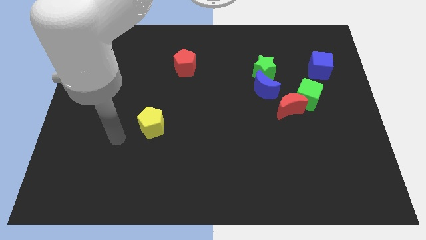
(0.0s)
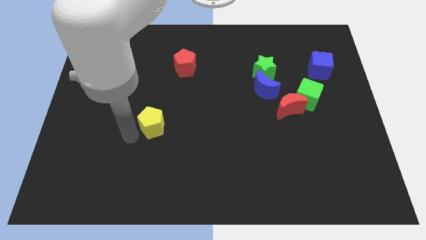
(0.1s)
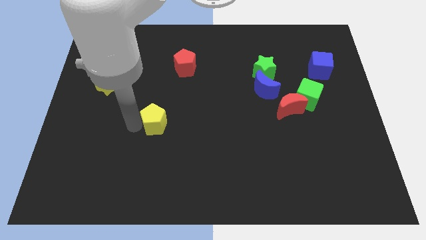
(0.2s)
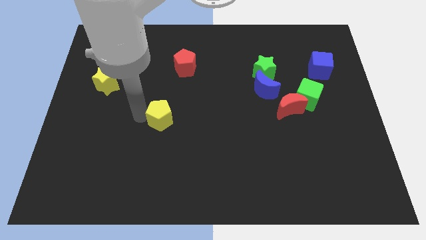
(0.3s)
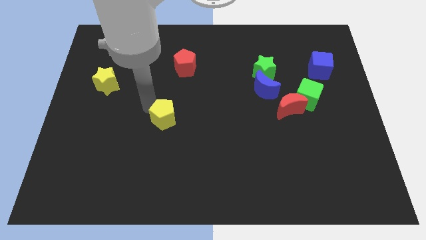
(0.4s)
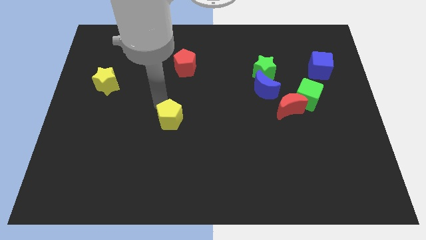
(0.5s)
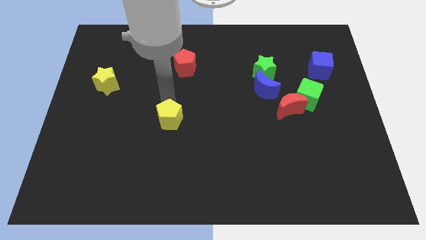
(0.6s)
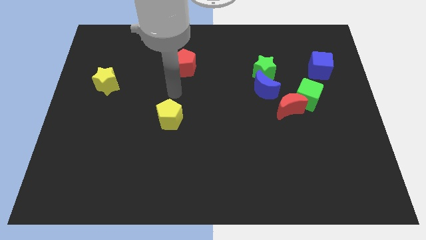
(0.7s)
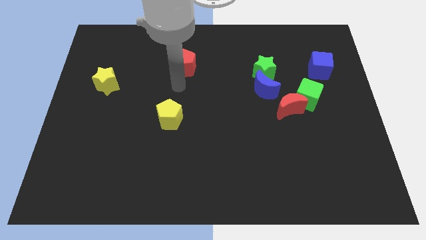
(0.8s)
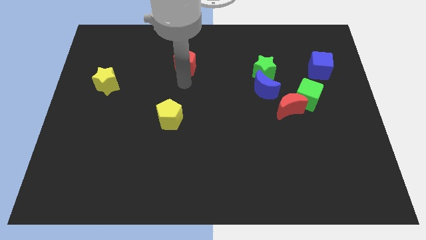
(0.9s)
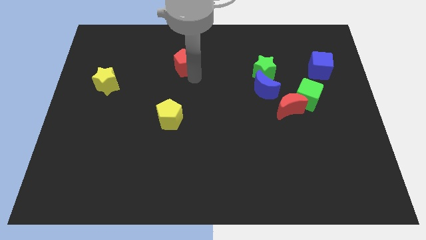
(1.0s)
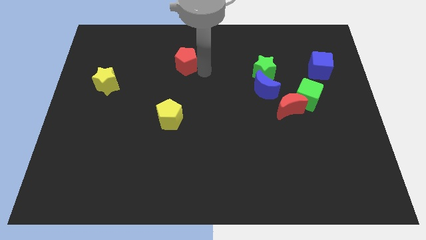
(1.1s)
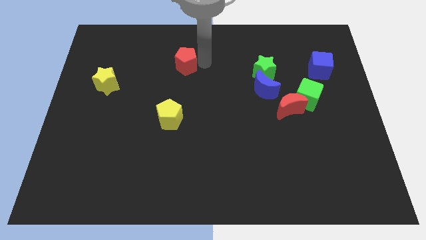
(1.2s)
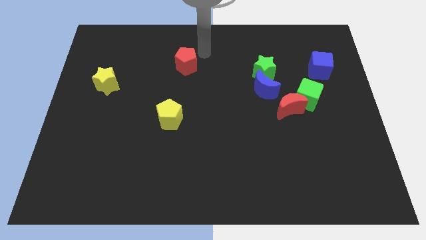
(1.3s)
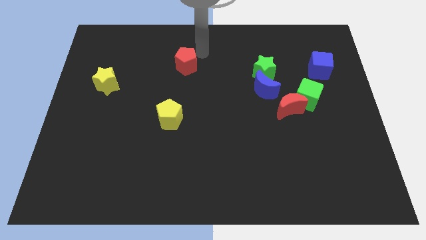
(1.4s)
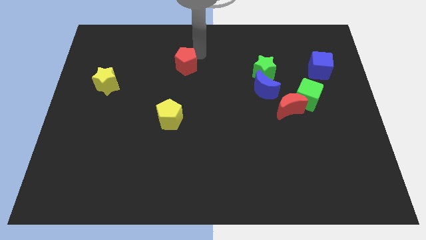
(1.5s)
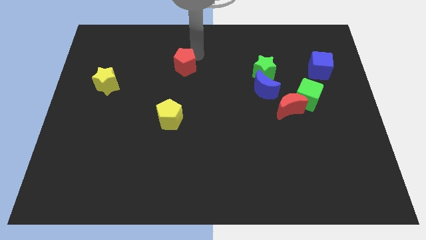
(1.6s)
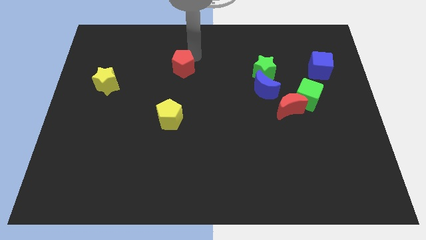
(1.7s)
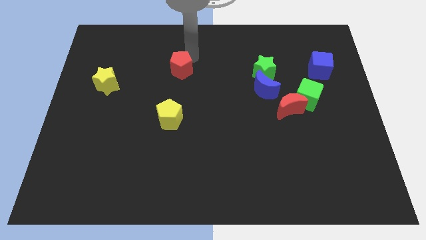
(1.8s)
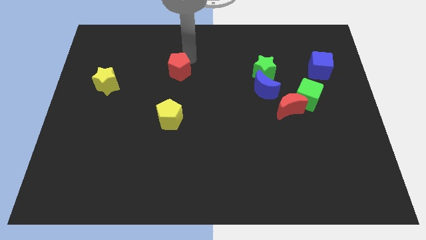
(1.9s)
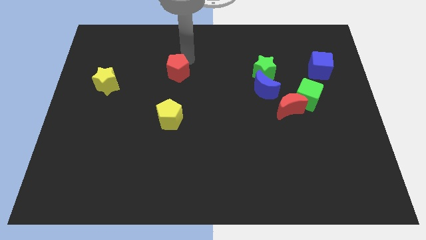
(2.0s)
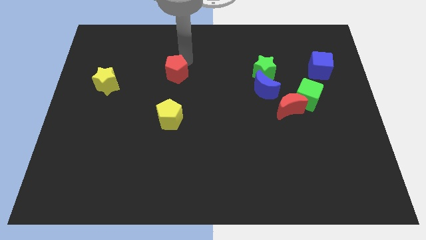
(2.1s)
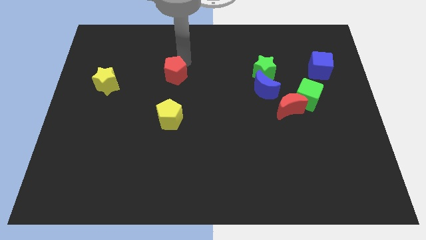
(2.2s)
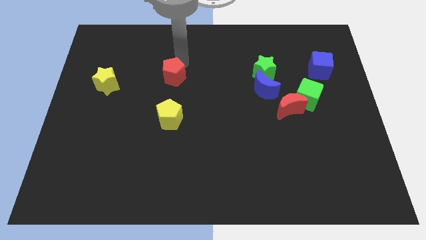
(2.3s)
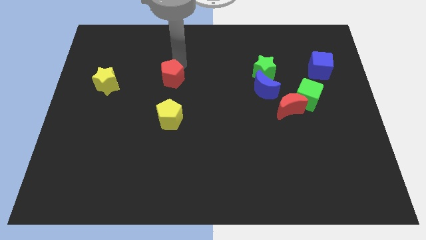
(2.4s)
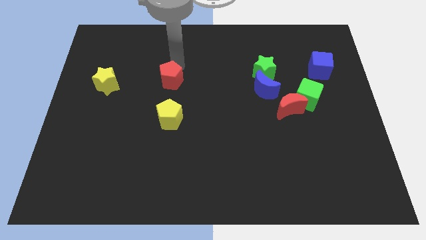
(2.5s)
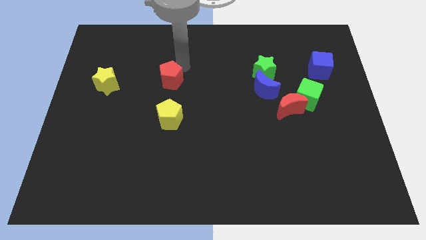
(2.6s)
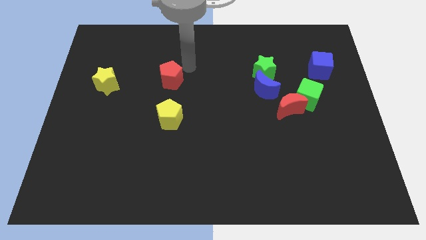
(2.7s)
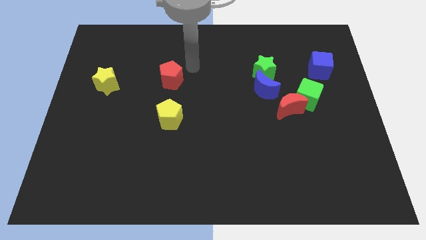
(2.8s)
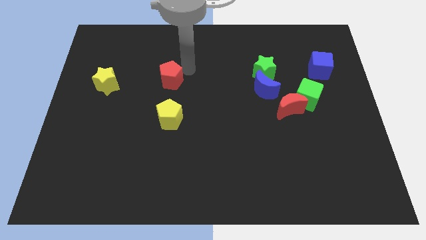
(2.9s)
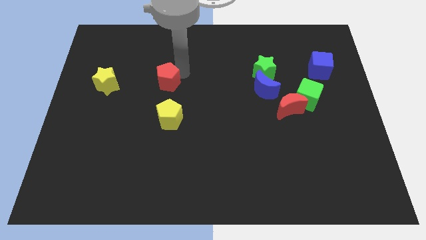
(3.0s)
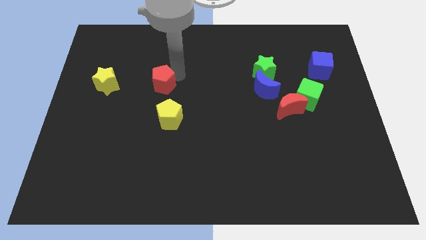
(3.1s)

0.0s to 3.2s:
slightly push the red pentagon down and to the left

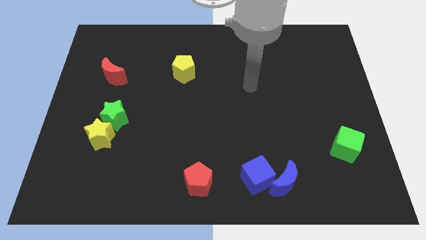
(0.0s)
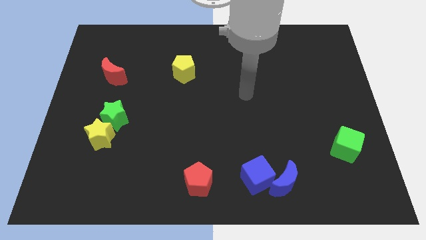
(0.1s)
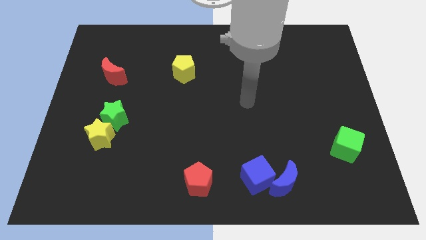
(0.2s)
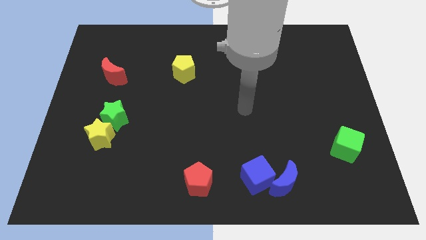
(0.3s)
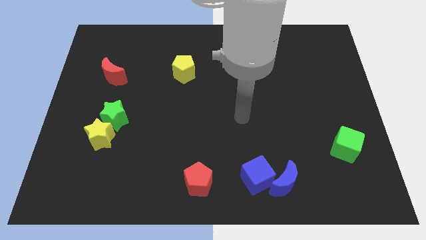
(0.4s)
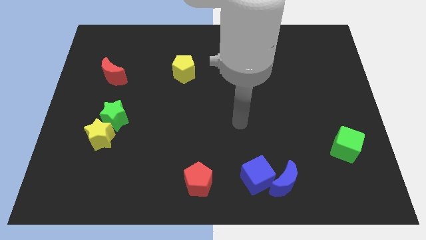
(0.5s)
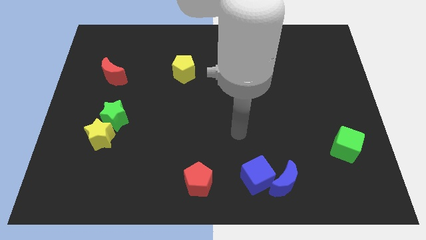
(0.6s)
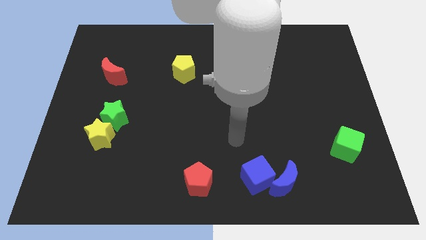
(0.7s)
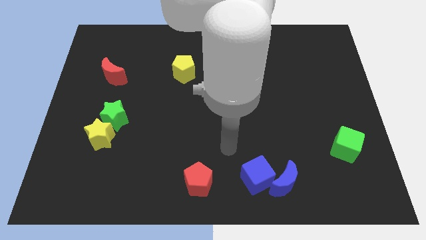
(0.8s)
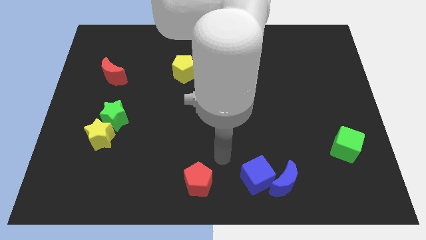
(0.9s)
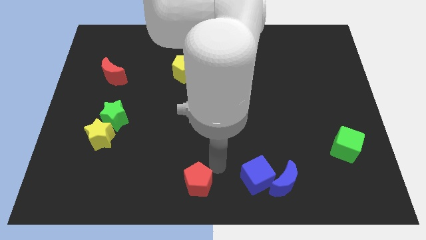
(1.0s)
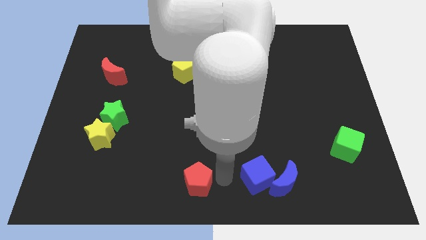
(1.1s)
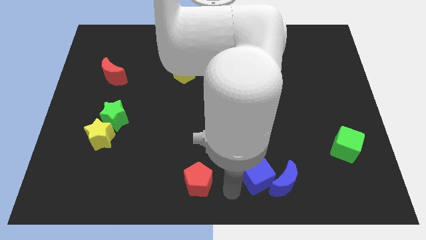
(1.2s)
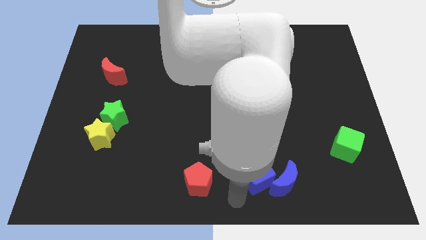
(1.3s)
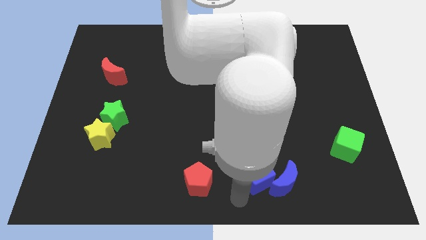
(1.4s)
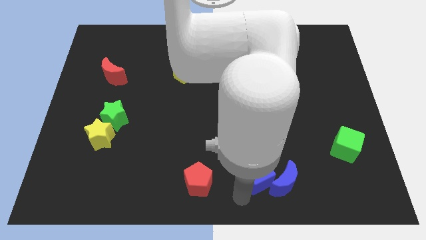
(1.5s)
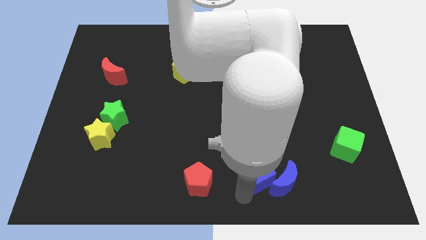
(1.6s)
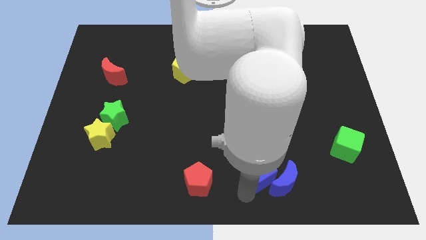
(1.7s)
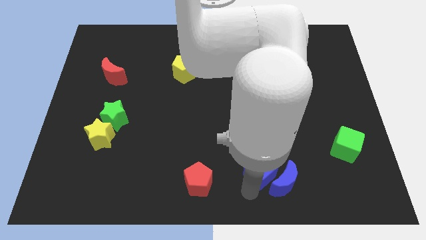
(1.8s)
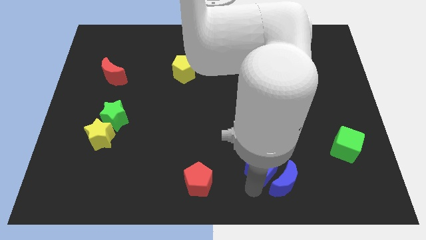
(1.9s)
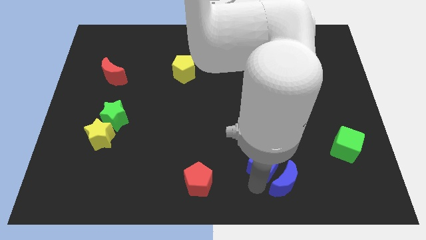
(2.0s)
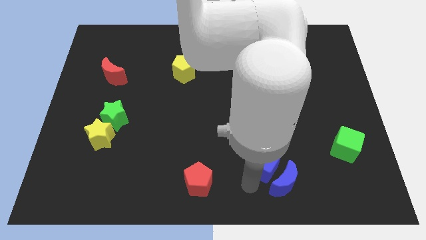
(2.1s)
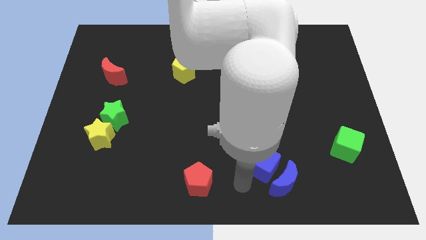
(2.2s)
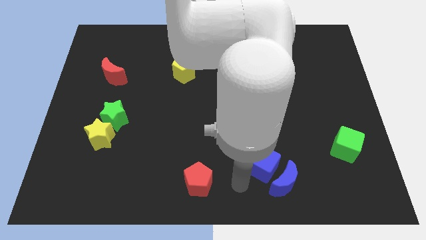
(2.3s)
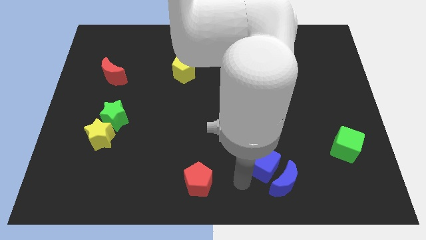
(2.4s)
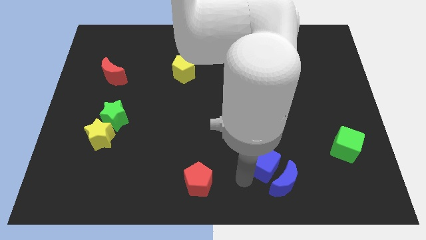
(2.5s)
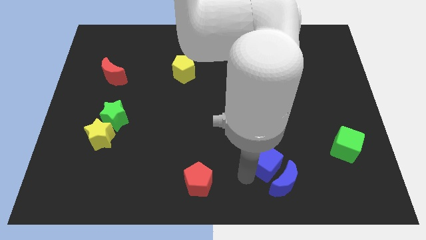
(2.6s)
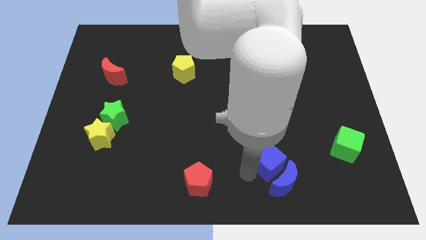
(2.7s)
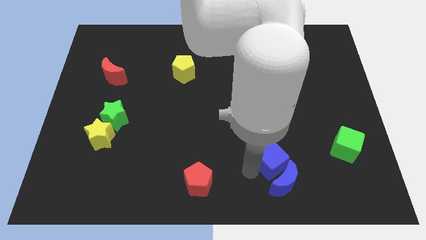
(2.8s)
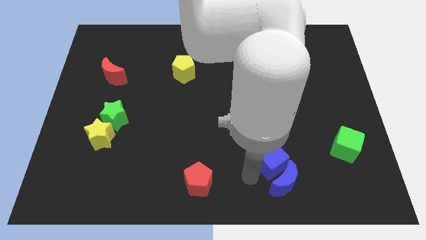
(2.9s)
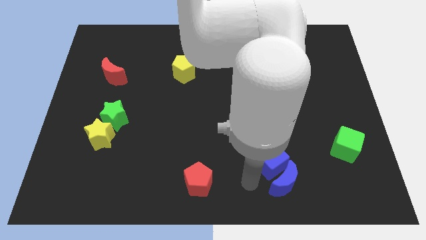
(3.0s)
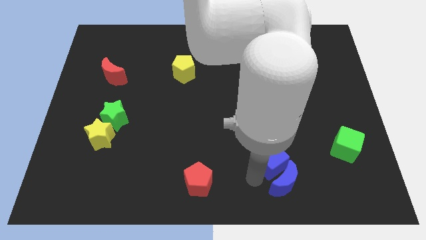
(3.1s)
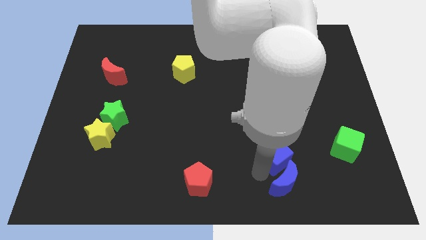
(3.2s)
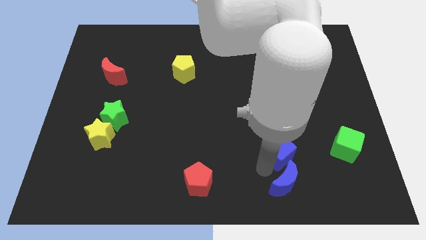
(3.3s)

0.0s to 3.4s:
slightly push the blue cube upwards and then right

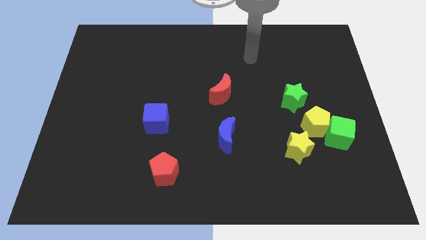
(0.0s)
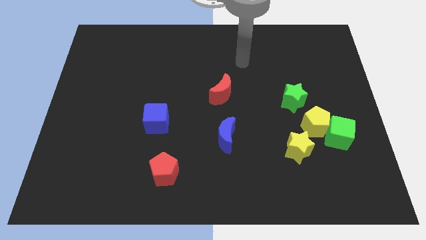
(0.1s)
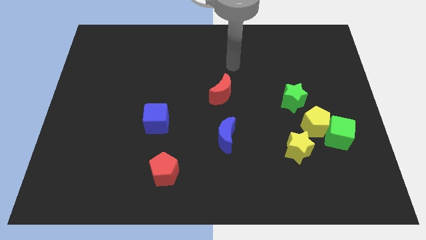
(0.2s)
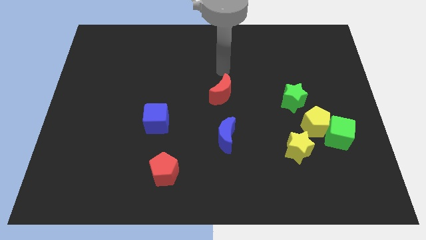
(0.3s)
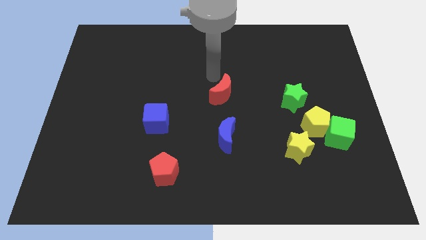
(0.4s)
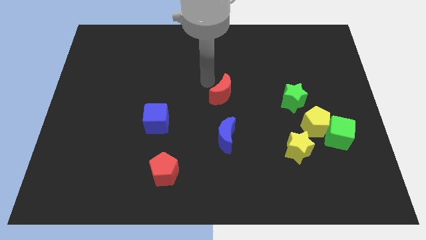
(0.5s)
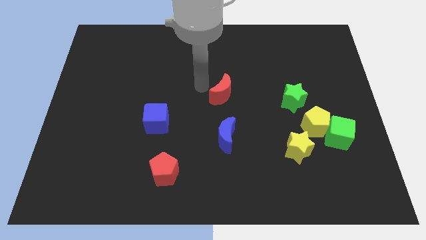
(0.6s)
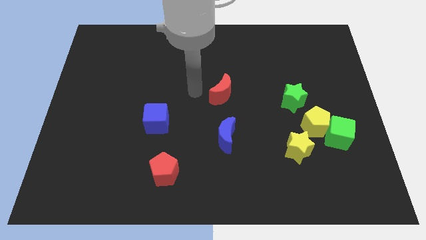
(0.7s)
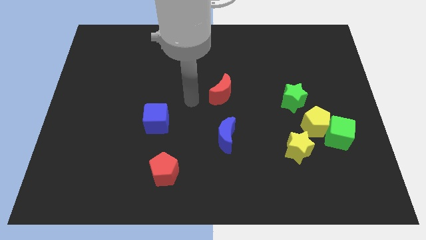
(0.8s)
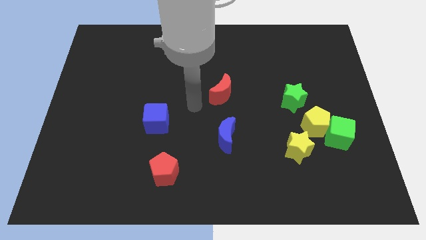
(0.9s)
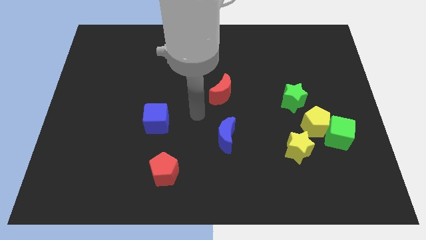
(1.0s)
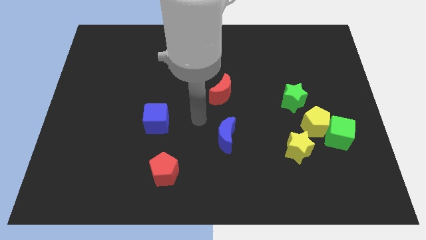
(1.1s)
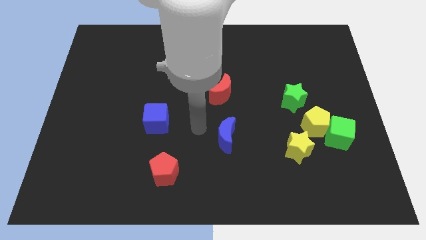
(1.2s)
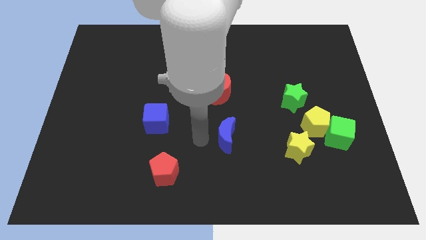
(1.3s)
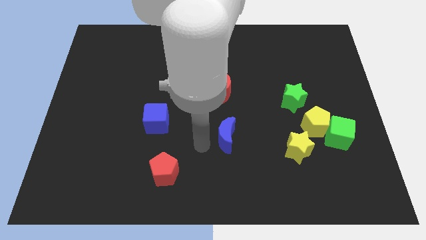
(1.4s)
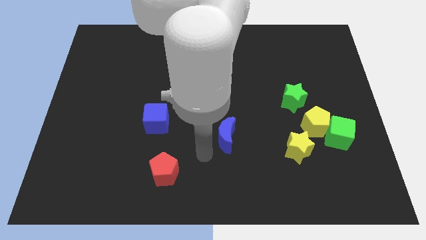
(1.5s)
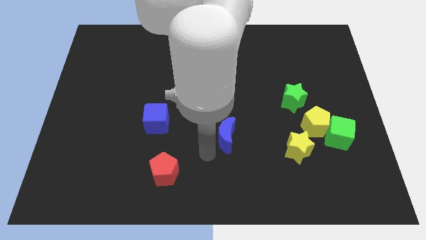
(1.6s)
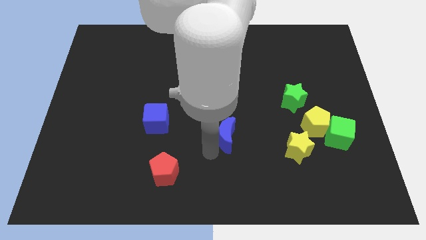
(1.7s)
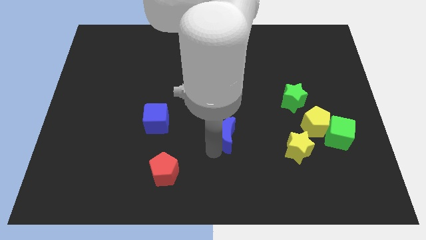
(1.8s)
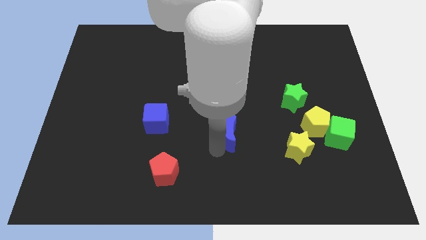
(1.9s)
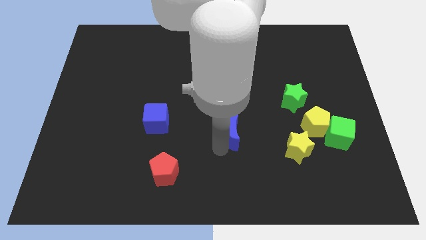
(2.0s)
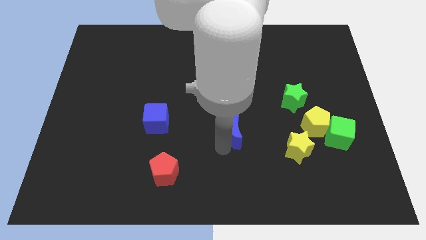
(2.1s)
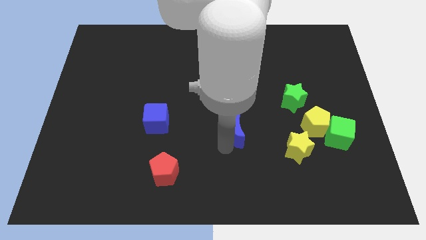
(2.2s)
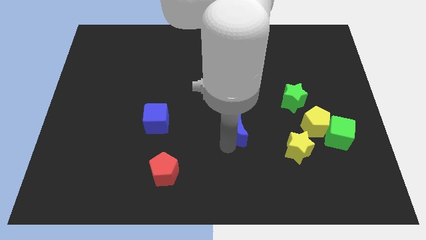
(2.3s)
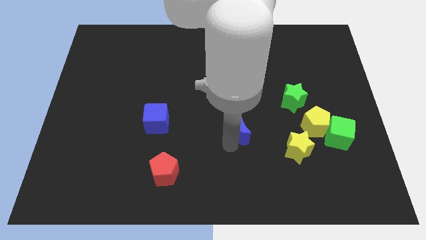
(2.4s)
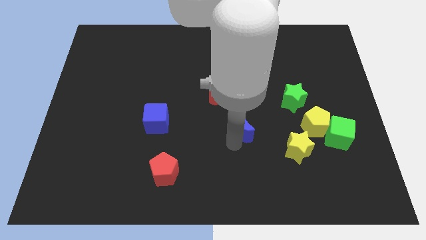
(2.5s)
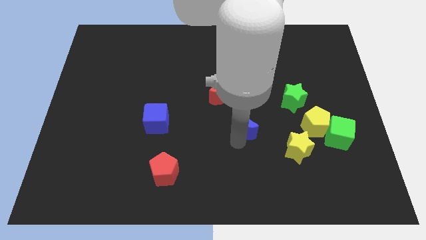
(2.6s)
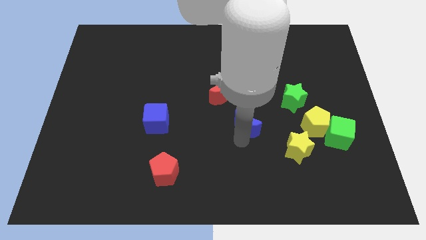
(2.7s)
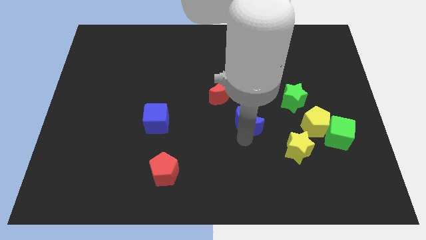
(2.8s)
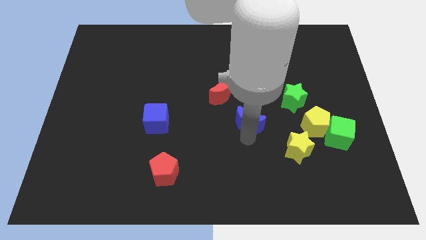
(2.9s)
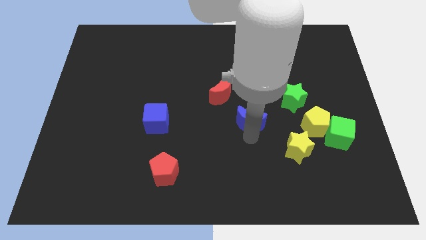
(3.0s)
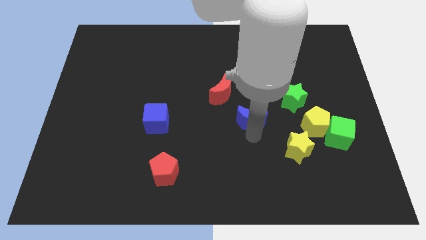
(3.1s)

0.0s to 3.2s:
slide the blue moon up and right a bit
